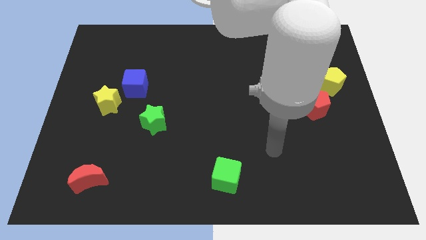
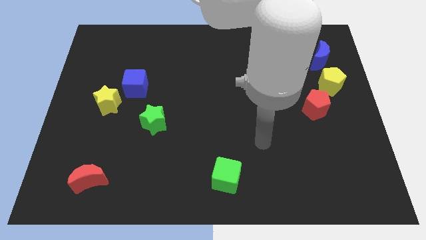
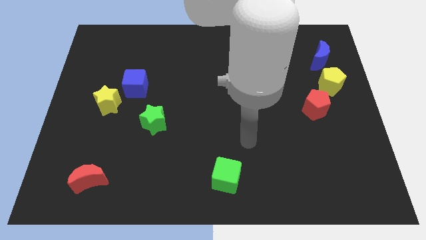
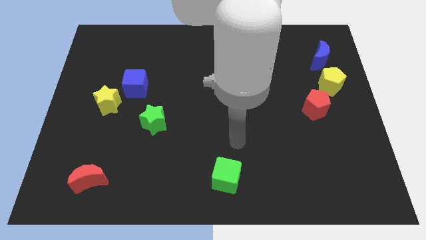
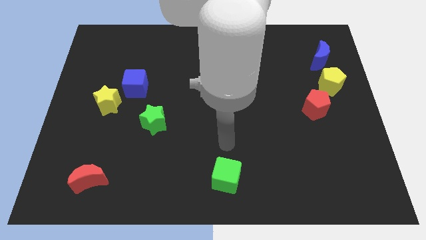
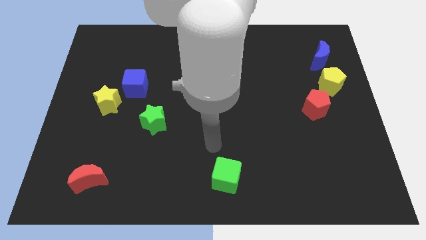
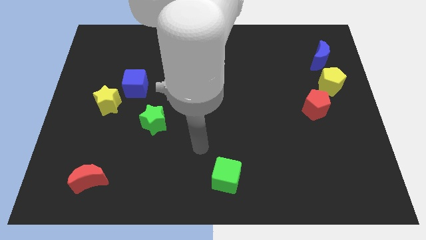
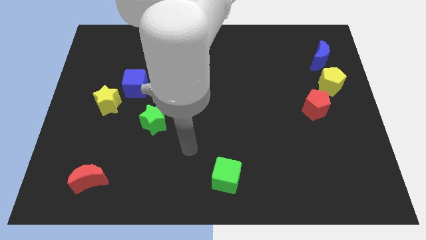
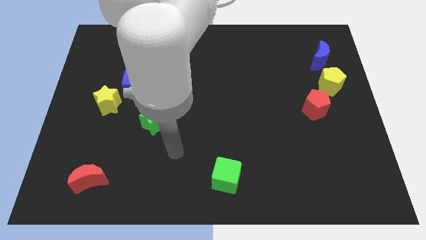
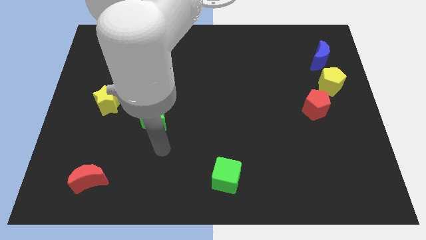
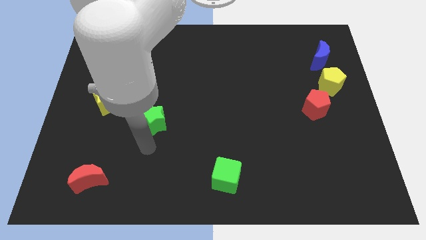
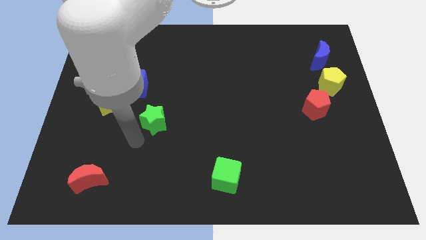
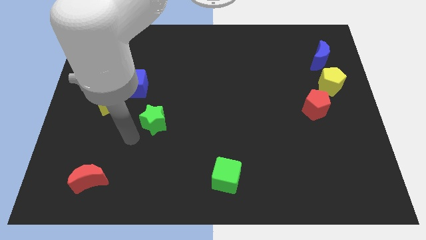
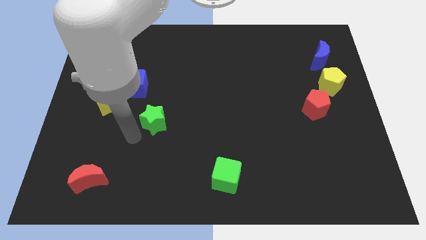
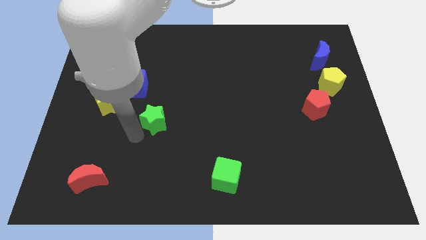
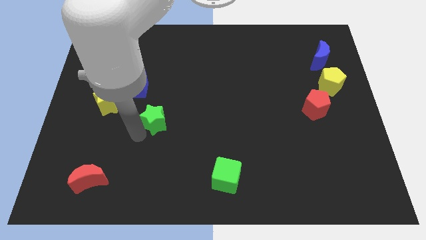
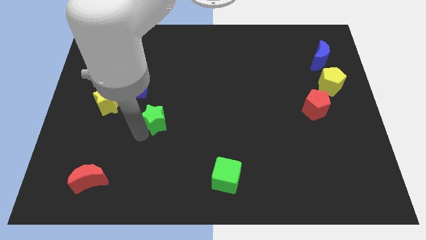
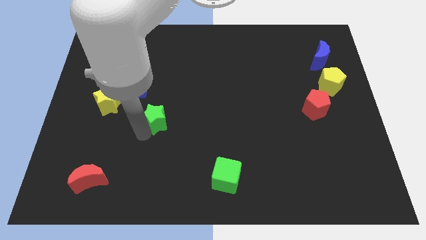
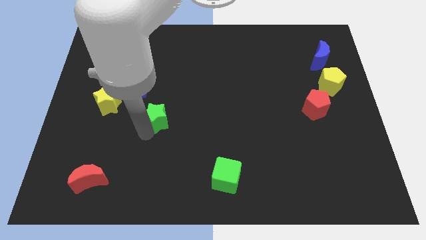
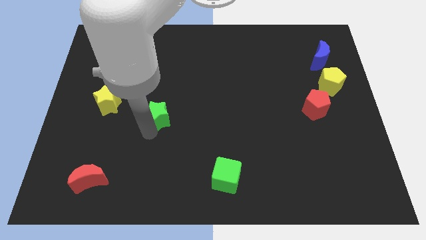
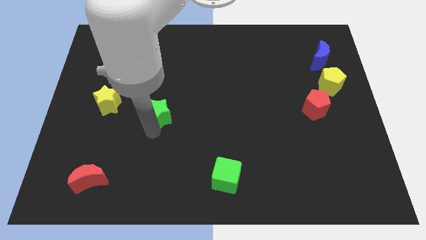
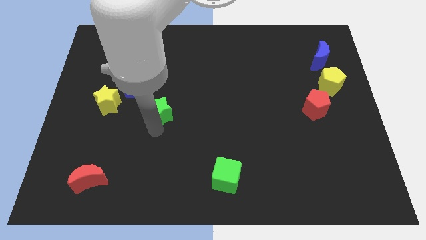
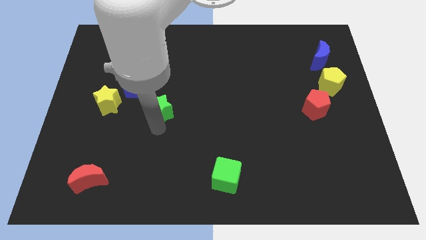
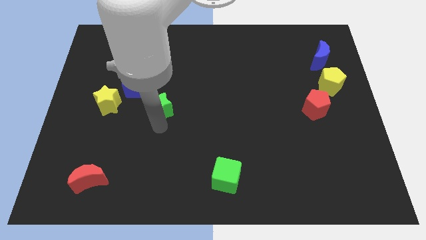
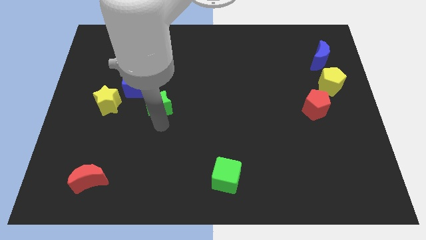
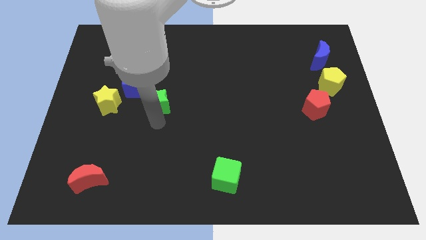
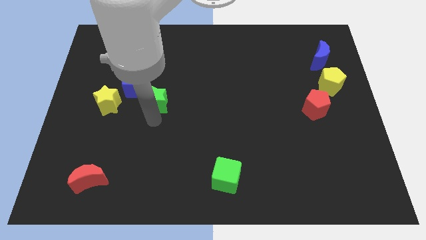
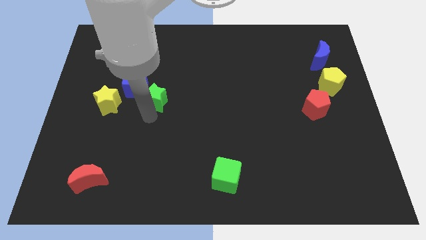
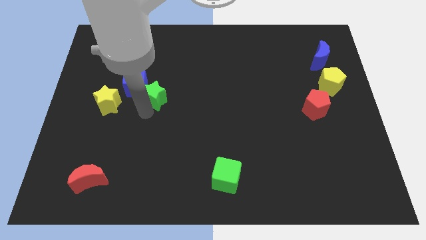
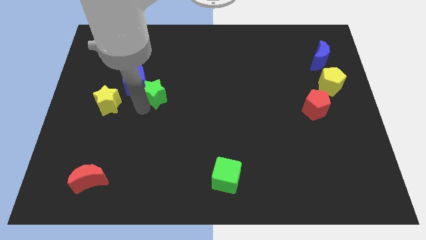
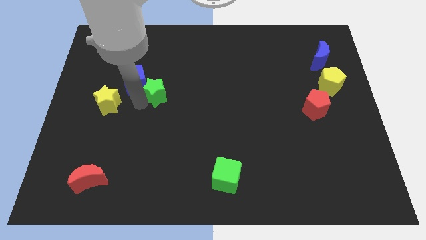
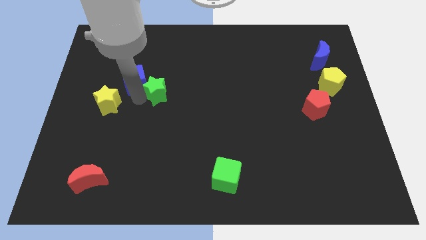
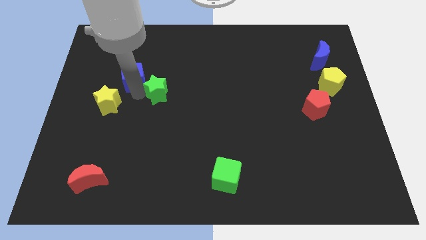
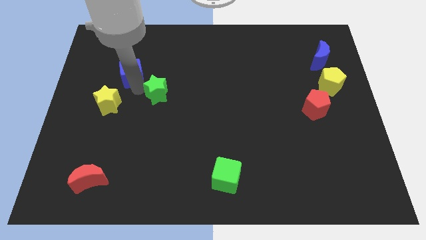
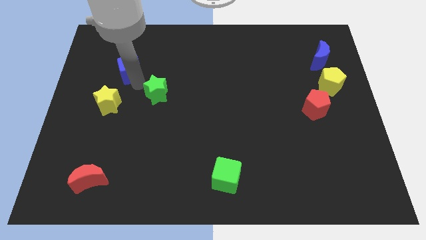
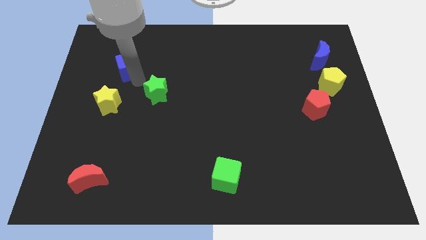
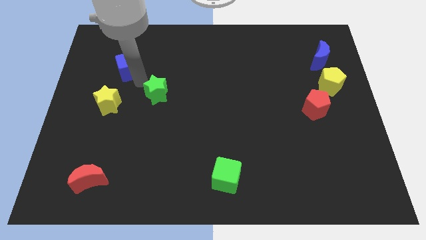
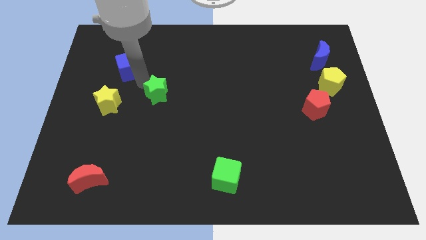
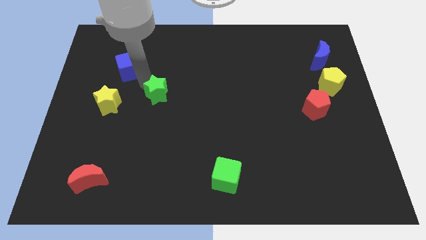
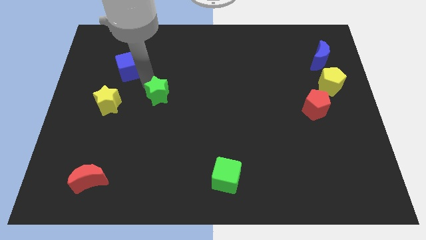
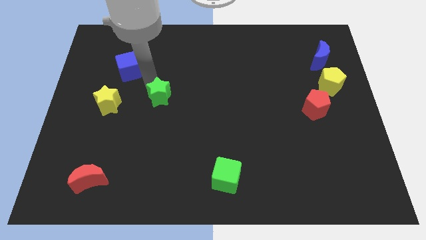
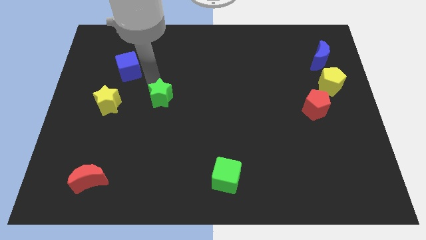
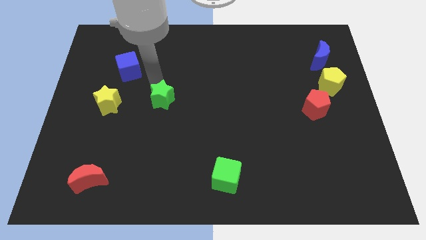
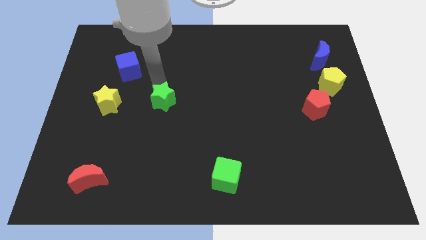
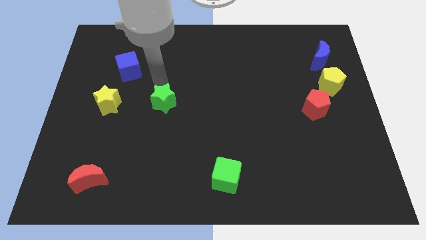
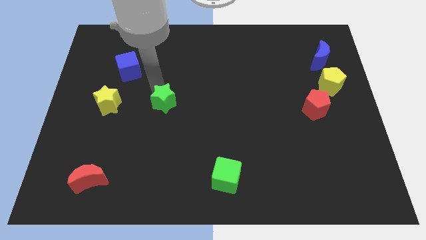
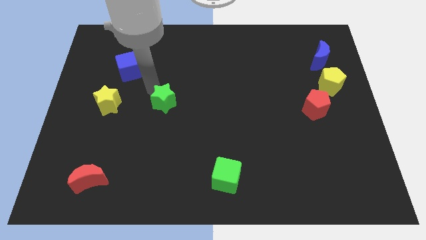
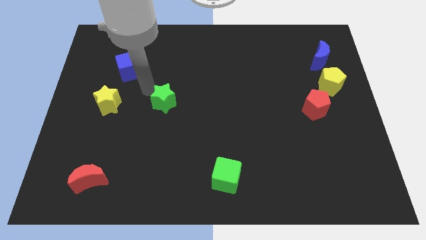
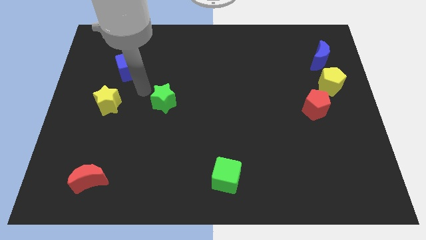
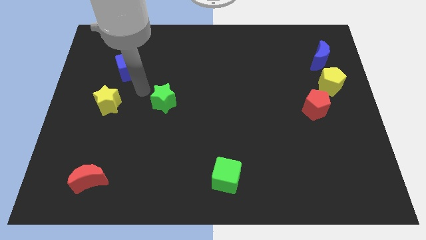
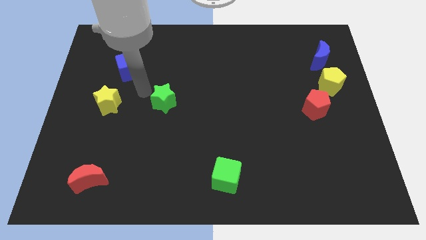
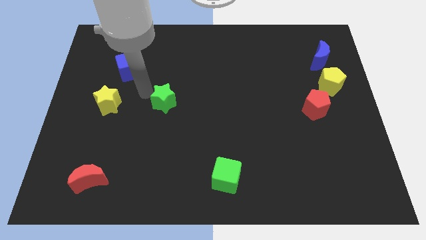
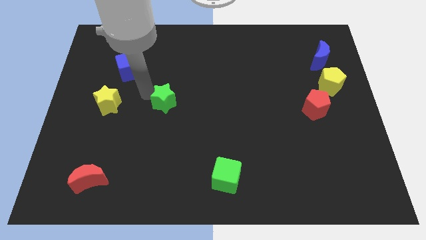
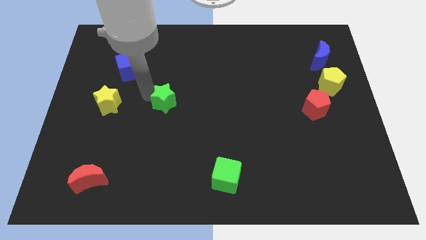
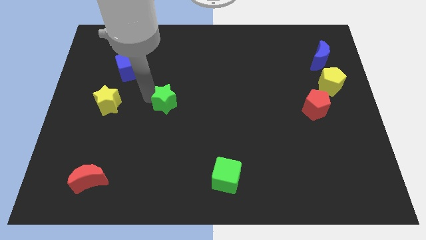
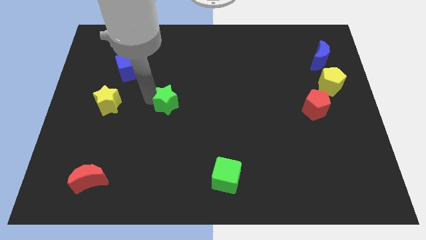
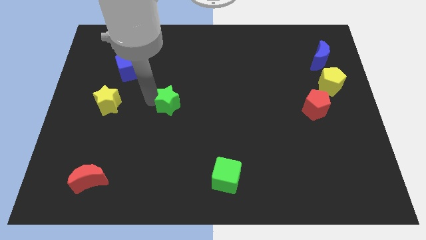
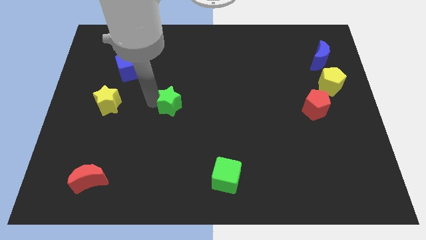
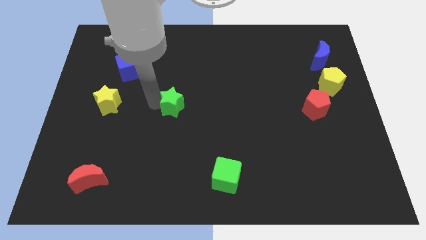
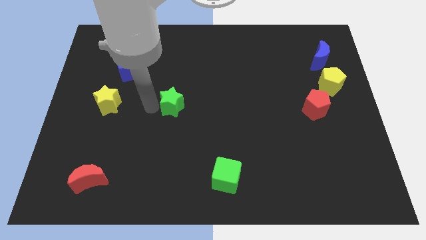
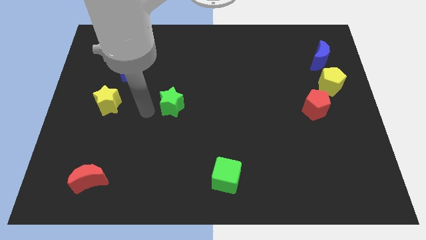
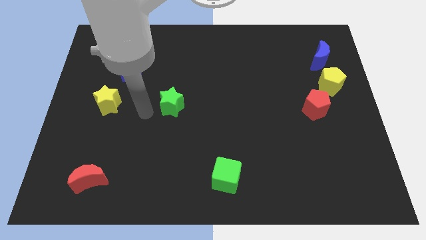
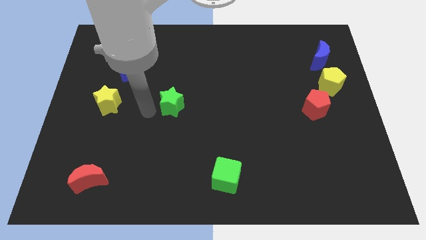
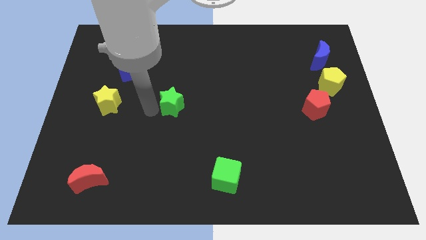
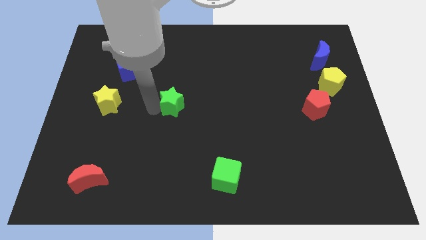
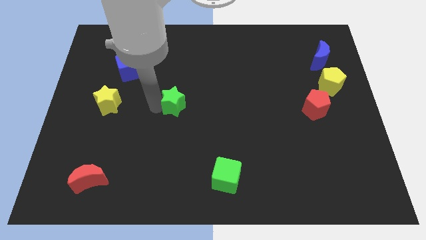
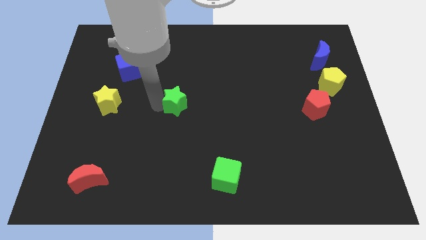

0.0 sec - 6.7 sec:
slide the green star up and then right somewhat

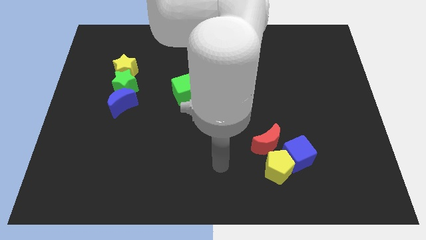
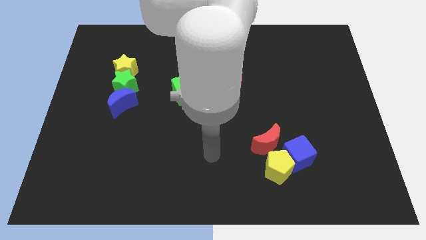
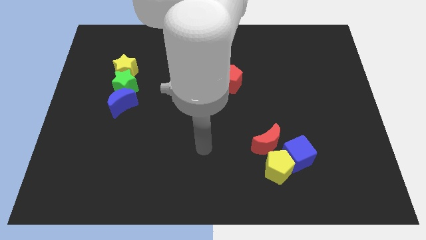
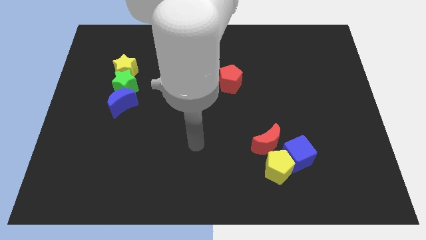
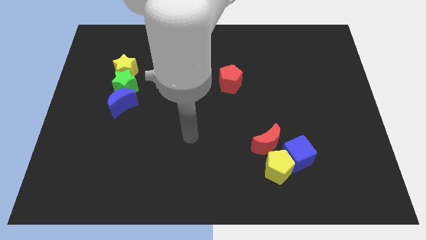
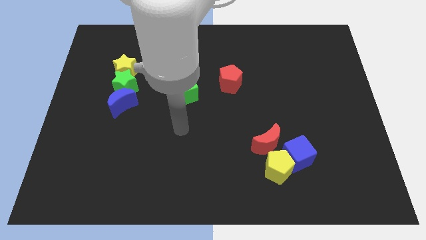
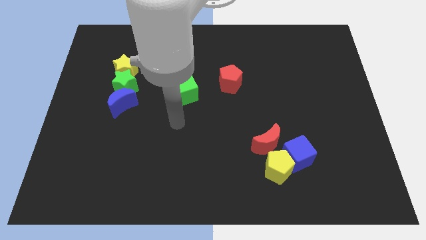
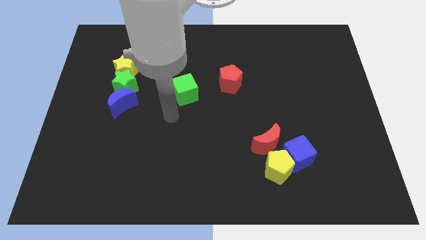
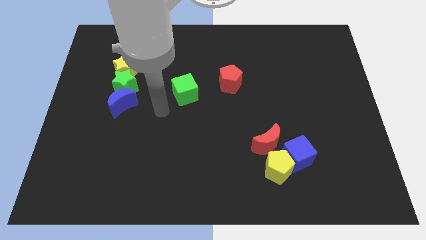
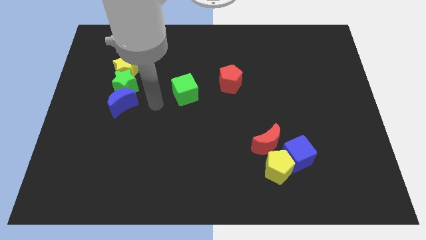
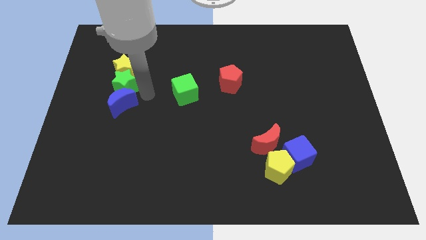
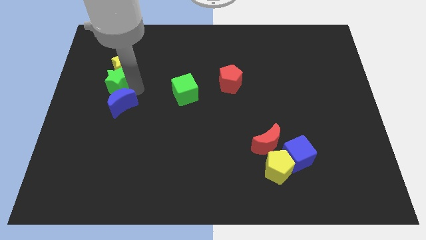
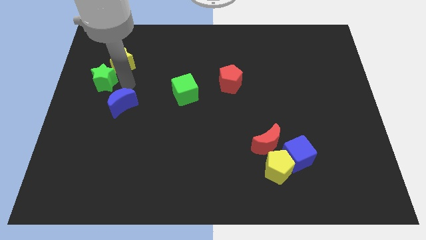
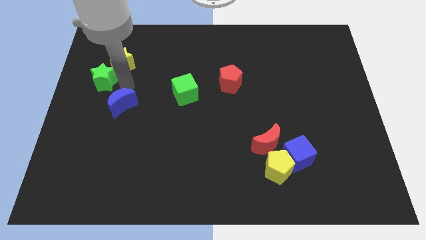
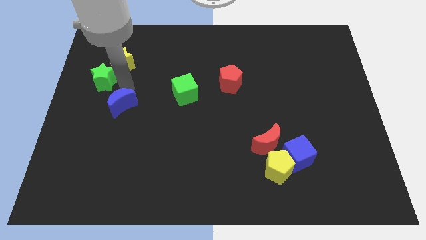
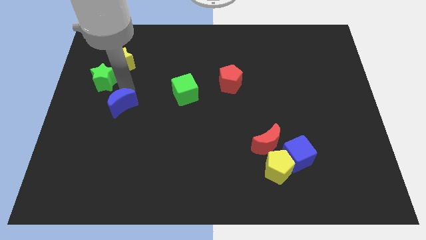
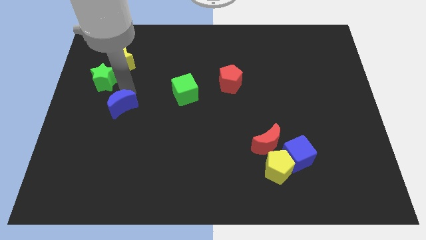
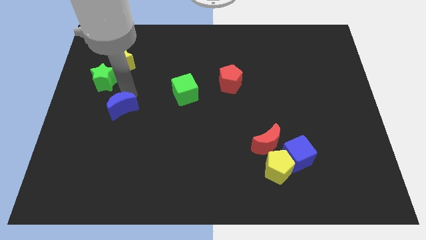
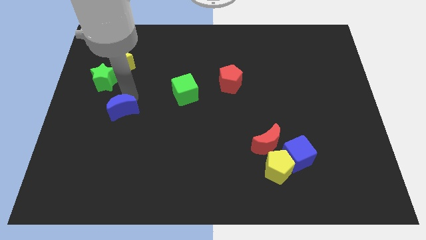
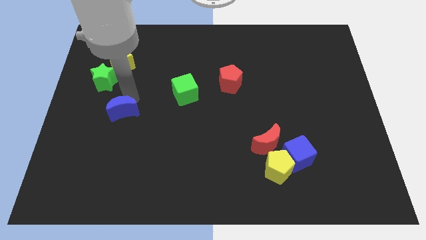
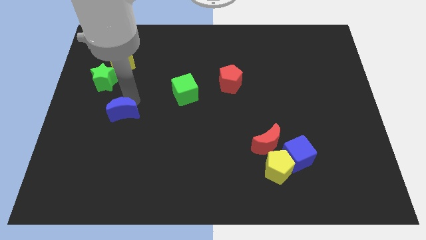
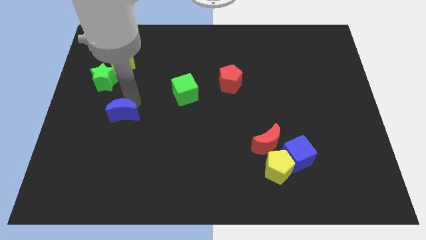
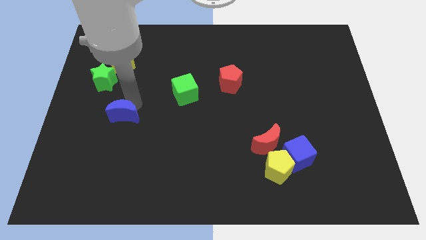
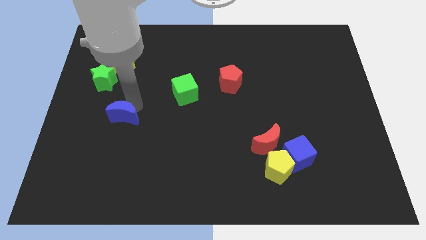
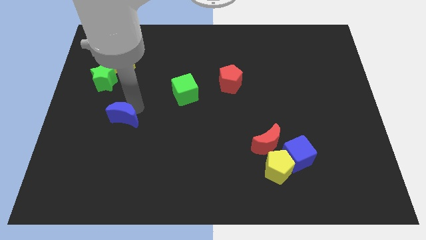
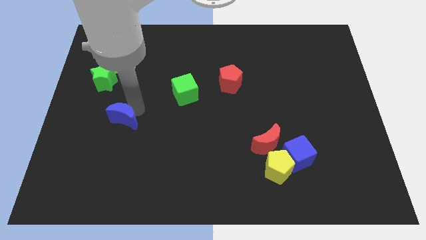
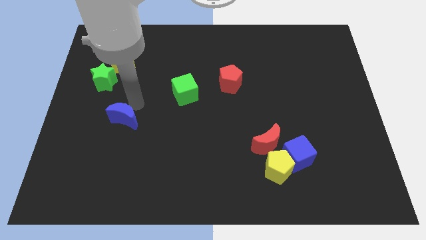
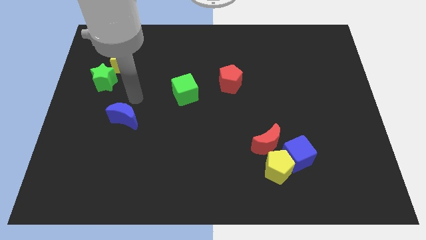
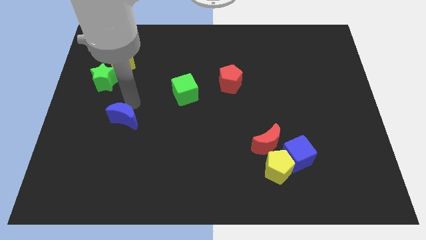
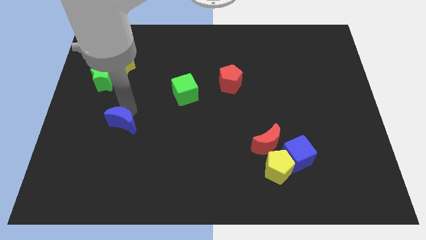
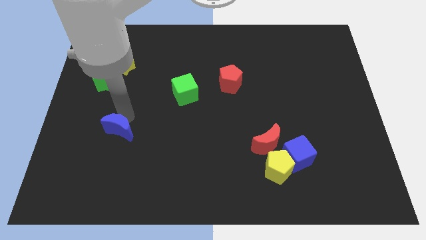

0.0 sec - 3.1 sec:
slightly slide the blue moon downwards
